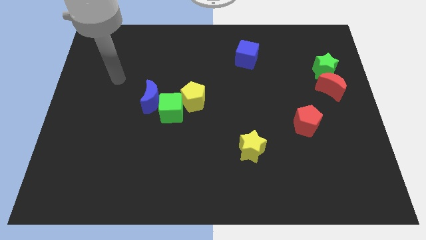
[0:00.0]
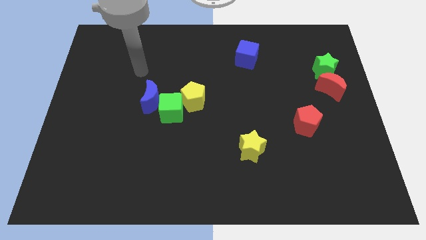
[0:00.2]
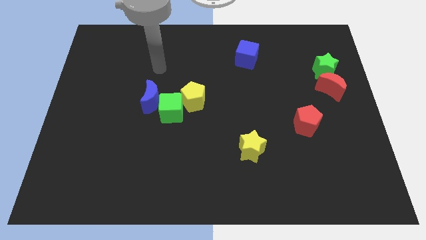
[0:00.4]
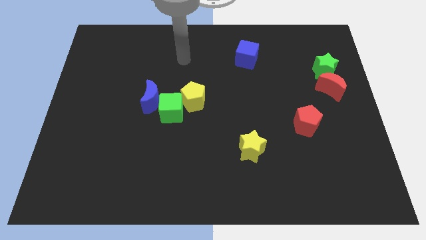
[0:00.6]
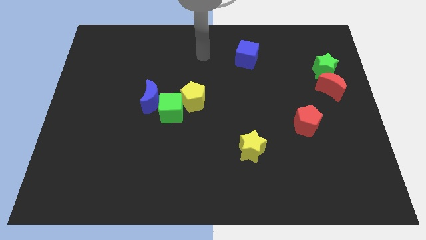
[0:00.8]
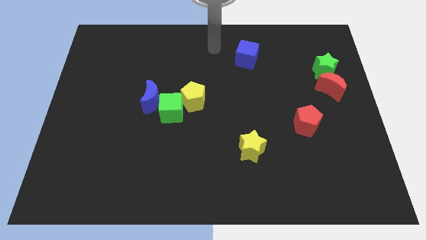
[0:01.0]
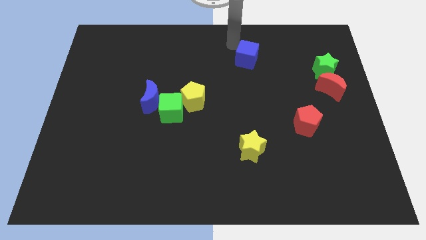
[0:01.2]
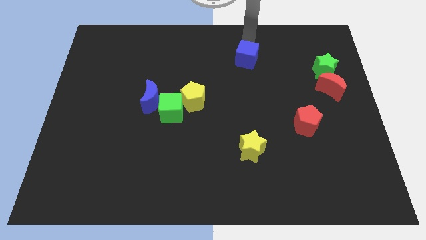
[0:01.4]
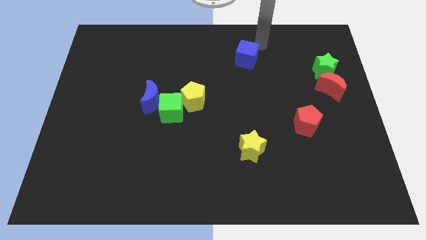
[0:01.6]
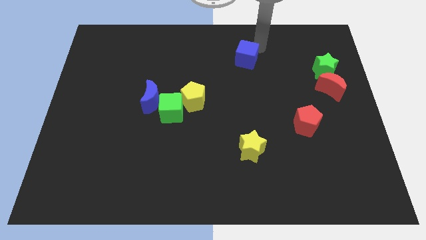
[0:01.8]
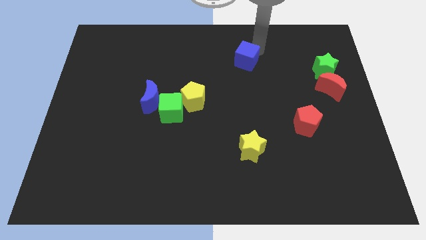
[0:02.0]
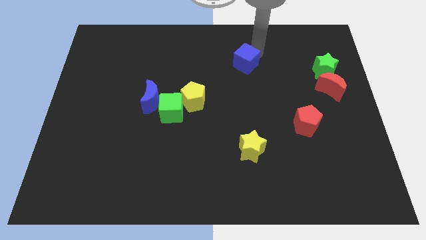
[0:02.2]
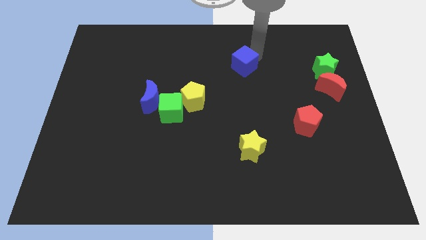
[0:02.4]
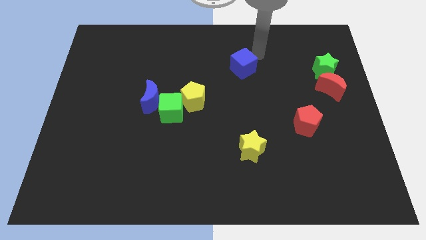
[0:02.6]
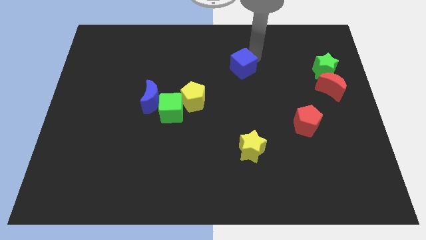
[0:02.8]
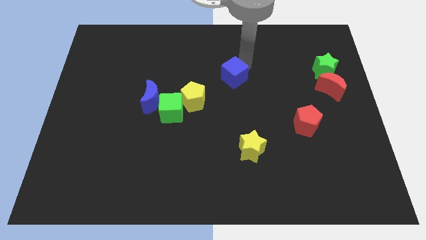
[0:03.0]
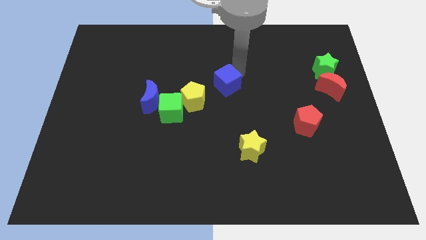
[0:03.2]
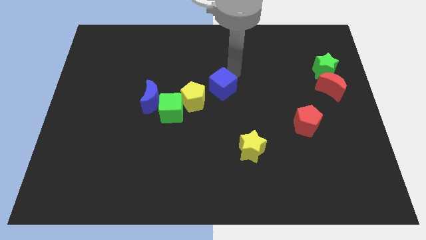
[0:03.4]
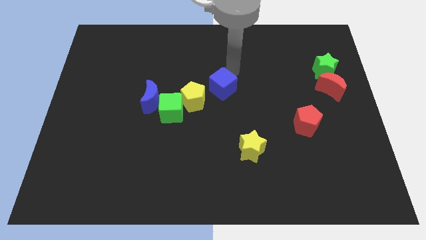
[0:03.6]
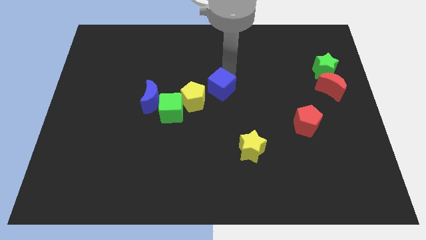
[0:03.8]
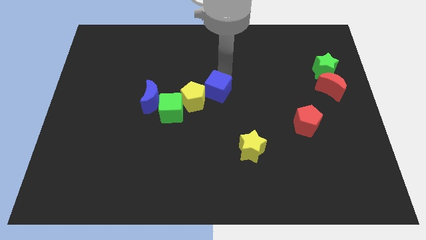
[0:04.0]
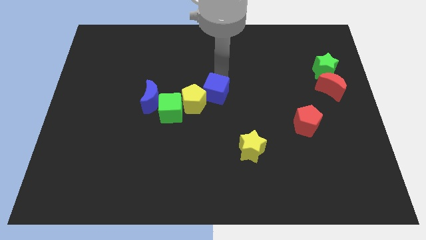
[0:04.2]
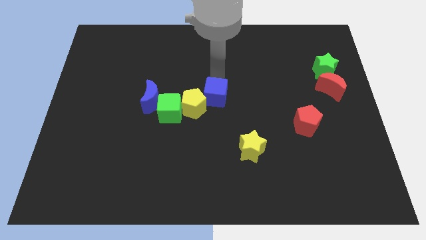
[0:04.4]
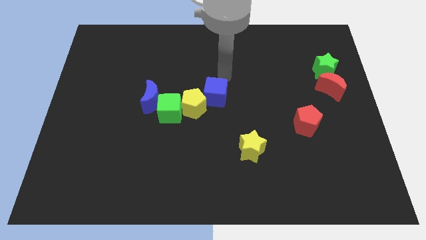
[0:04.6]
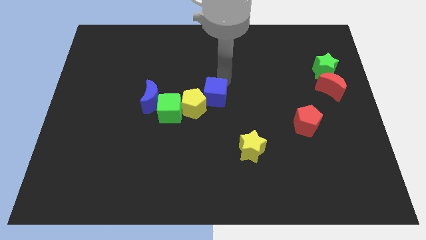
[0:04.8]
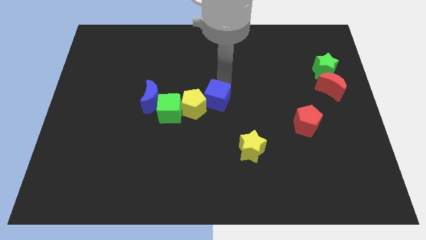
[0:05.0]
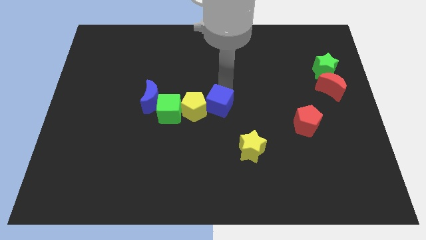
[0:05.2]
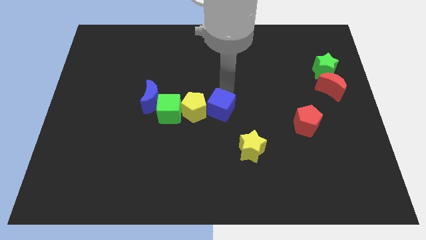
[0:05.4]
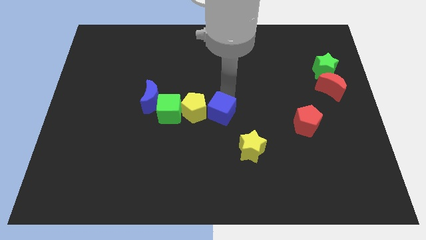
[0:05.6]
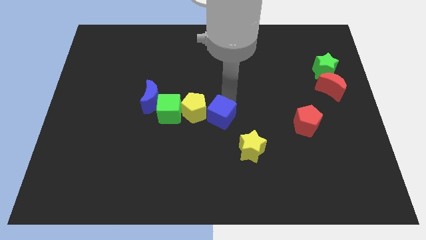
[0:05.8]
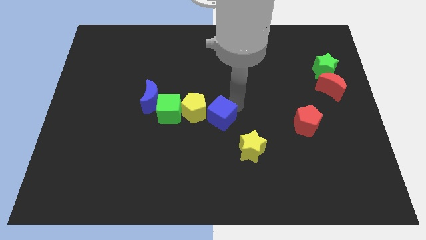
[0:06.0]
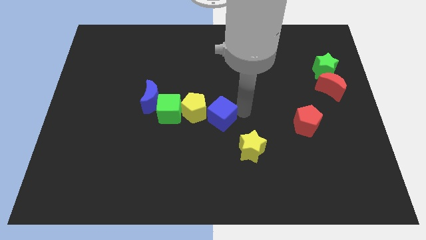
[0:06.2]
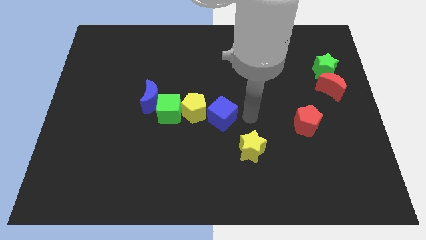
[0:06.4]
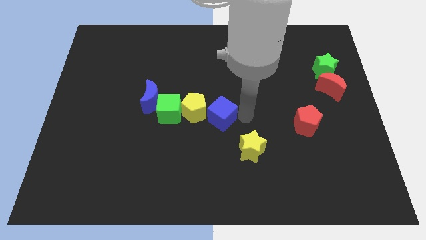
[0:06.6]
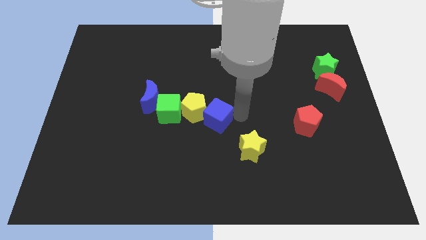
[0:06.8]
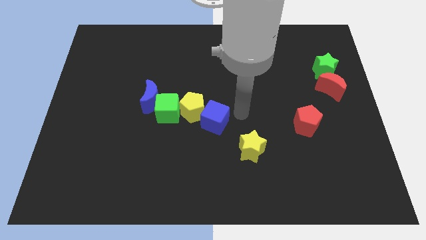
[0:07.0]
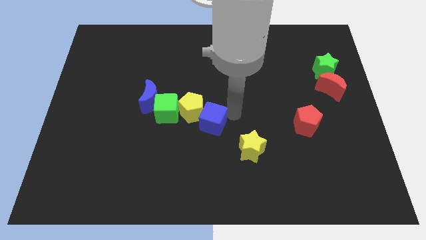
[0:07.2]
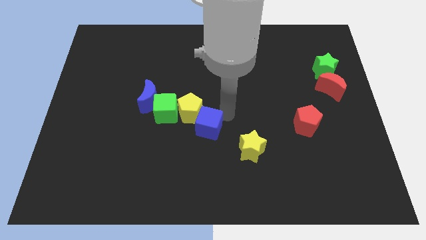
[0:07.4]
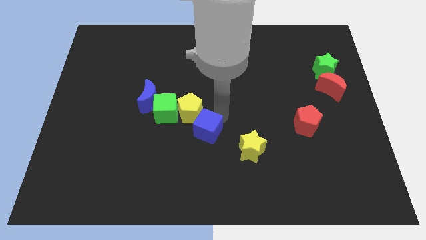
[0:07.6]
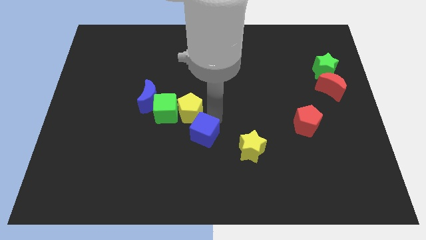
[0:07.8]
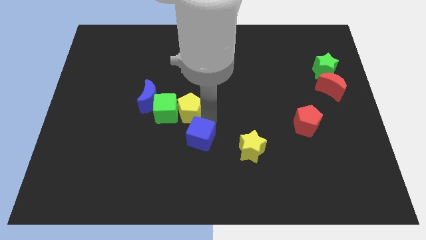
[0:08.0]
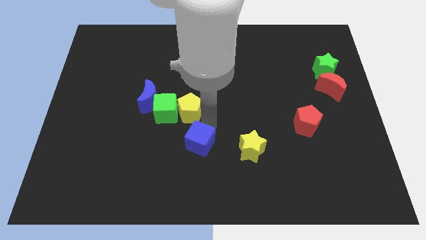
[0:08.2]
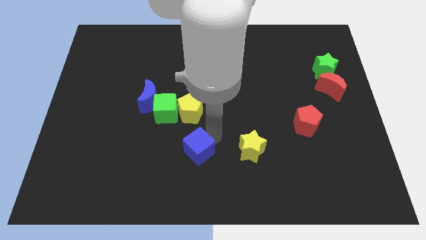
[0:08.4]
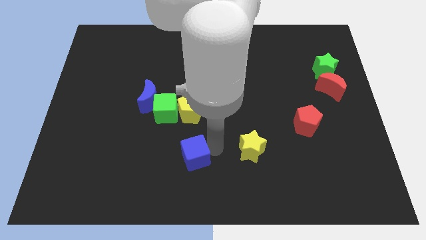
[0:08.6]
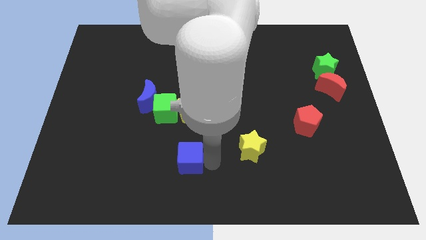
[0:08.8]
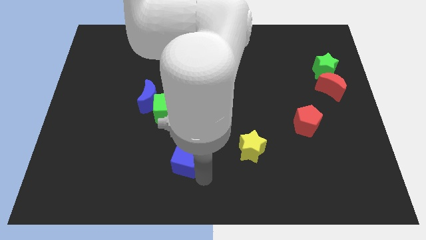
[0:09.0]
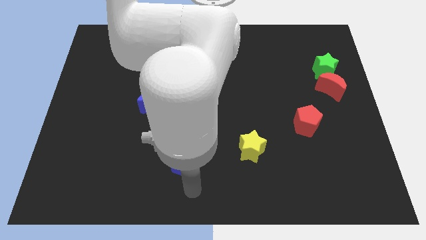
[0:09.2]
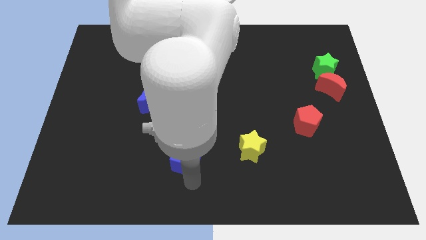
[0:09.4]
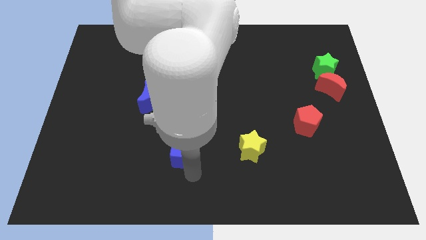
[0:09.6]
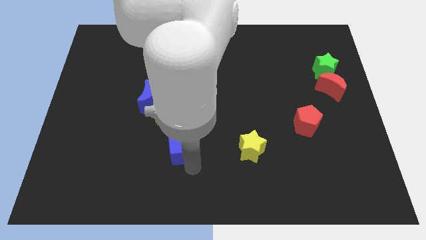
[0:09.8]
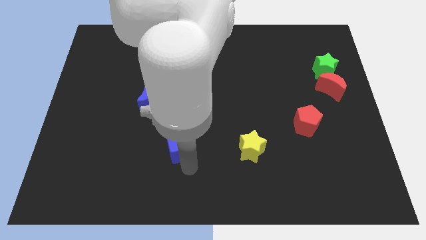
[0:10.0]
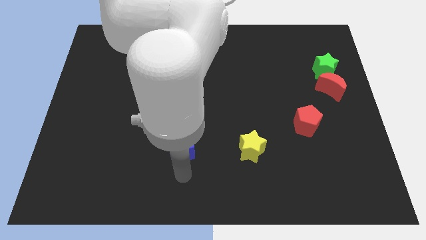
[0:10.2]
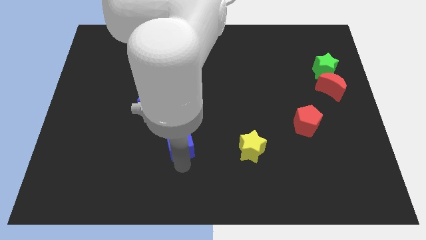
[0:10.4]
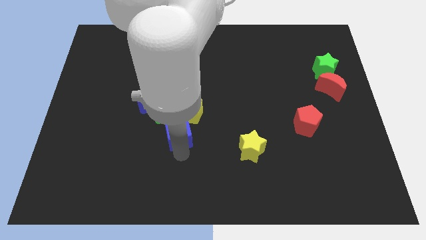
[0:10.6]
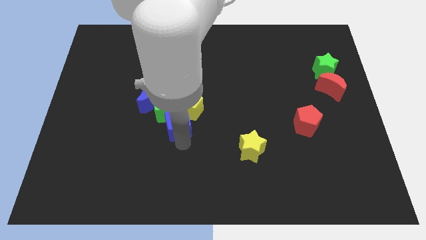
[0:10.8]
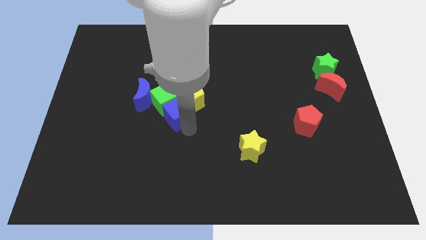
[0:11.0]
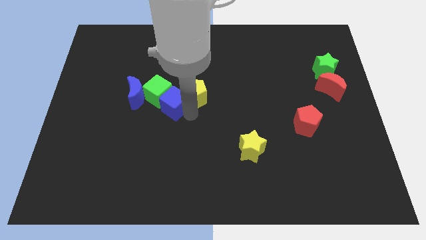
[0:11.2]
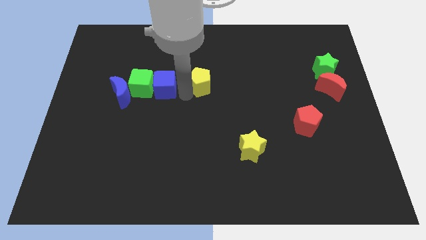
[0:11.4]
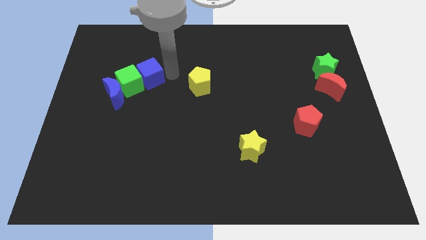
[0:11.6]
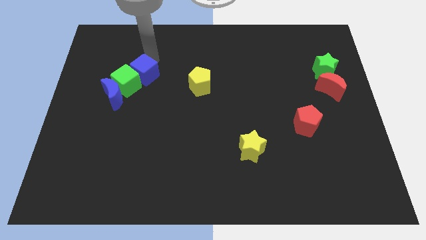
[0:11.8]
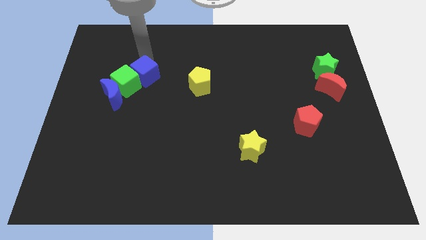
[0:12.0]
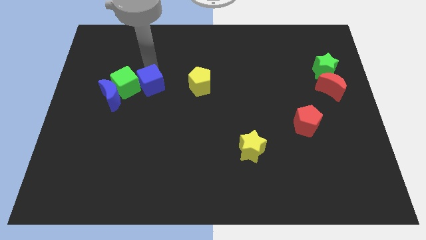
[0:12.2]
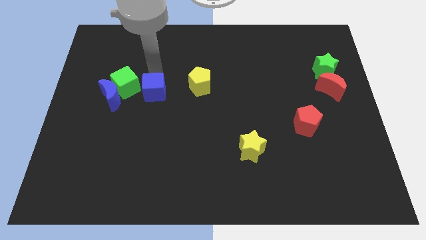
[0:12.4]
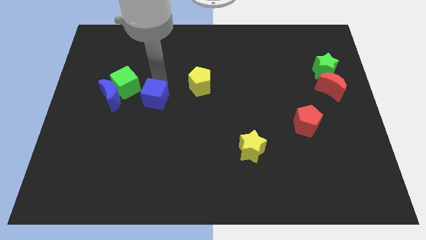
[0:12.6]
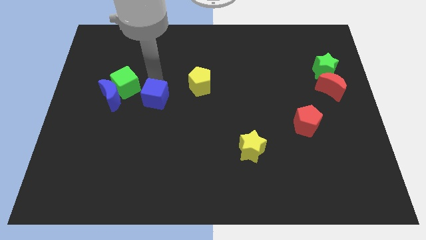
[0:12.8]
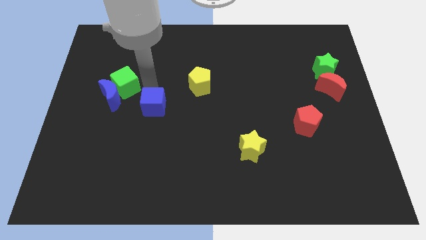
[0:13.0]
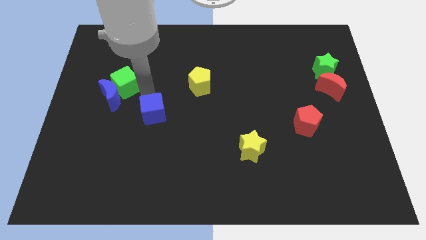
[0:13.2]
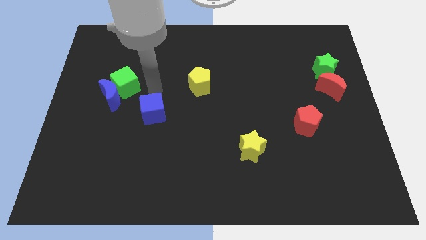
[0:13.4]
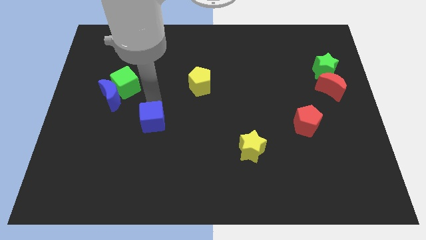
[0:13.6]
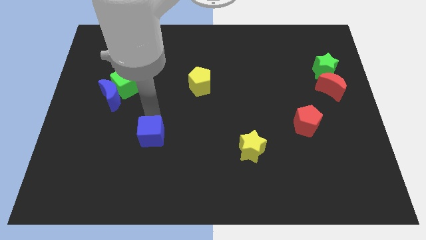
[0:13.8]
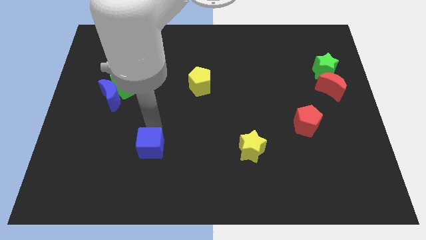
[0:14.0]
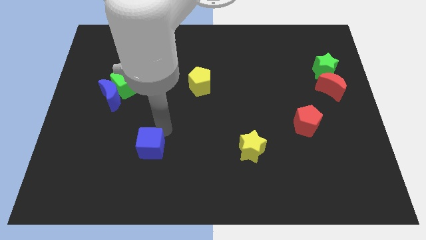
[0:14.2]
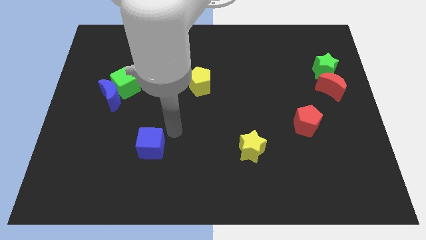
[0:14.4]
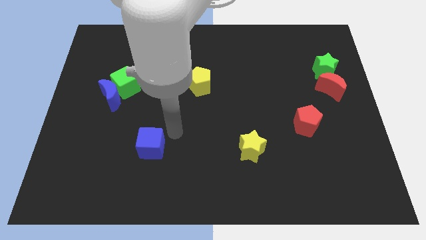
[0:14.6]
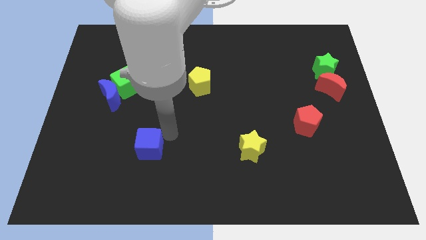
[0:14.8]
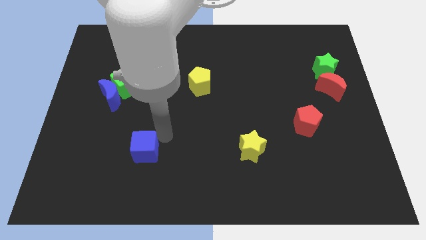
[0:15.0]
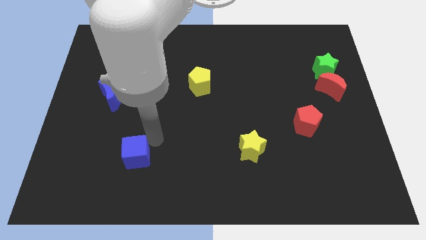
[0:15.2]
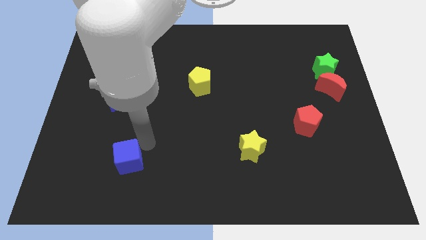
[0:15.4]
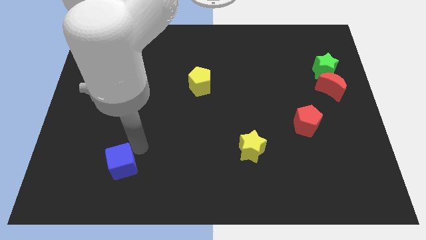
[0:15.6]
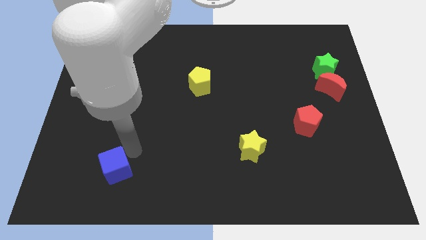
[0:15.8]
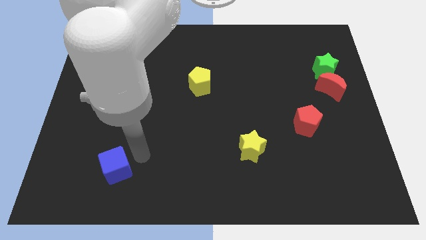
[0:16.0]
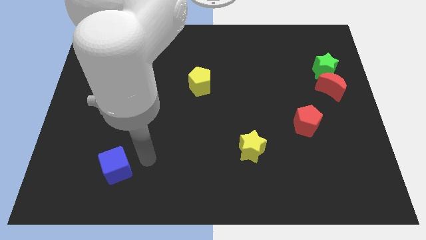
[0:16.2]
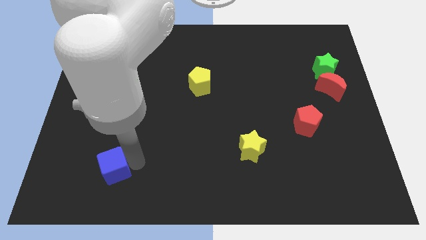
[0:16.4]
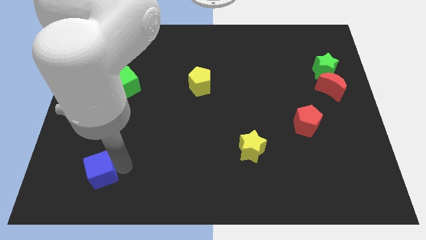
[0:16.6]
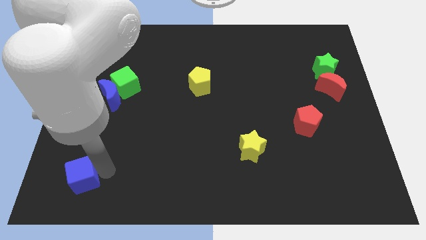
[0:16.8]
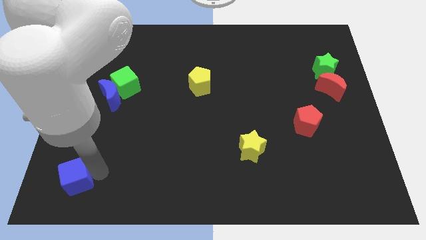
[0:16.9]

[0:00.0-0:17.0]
move the blue cube to the bottom left
